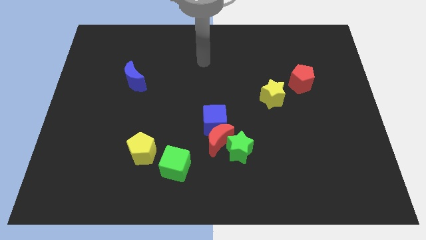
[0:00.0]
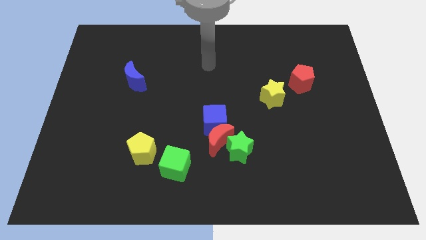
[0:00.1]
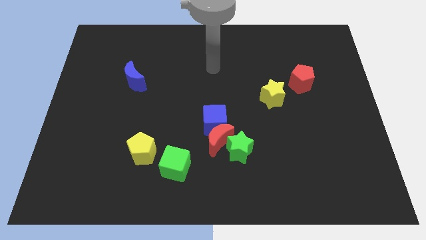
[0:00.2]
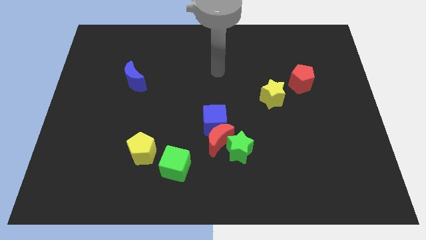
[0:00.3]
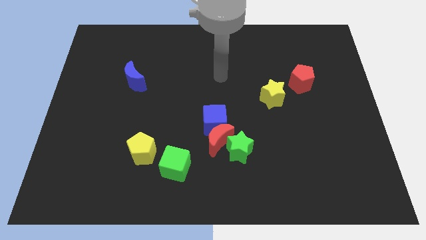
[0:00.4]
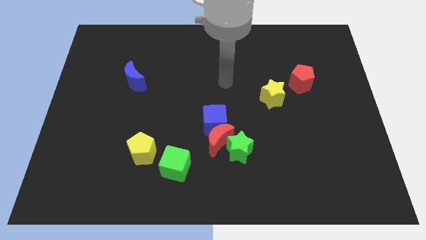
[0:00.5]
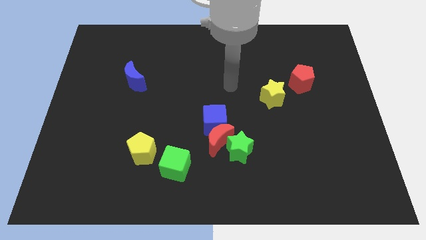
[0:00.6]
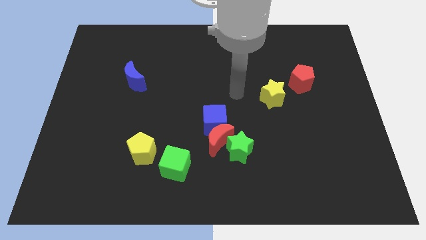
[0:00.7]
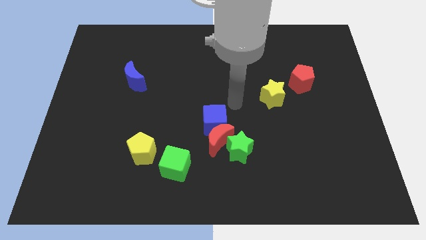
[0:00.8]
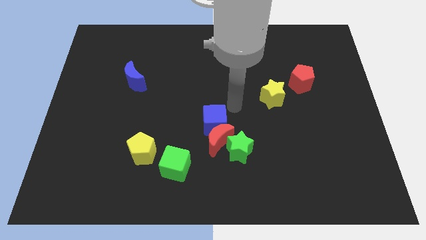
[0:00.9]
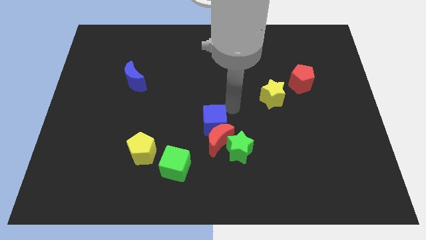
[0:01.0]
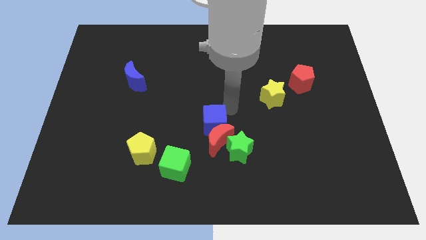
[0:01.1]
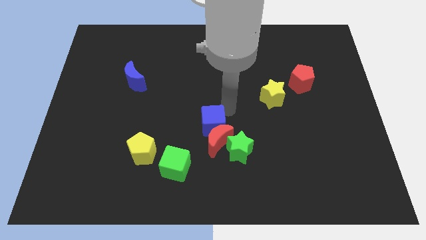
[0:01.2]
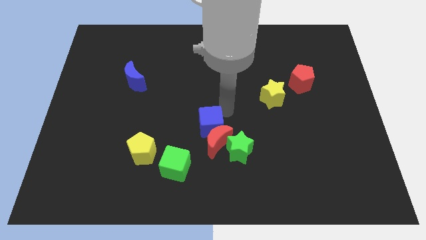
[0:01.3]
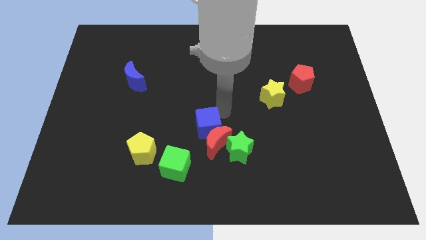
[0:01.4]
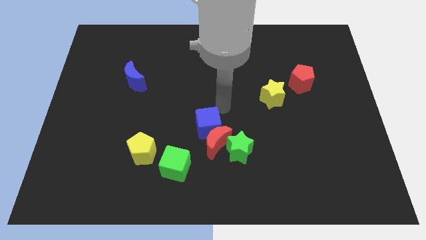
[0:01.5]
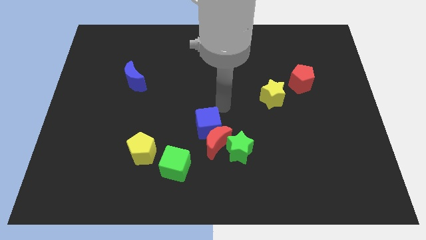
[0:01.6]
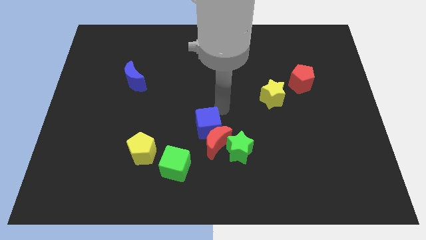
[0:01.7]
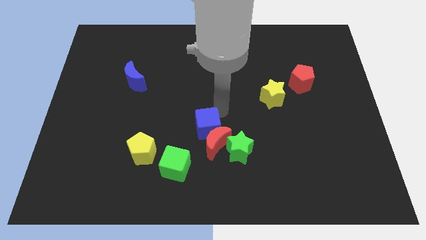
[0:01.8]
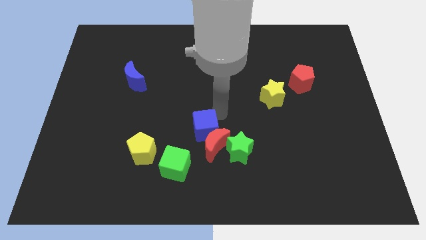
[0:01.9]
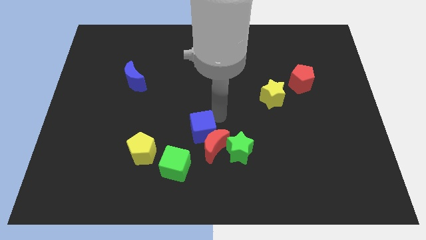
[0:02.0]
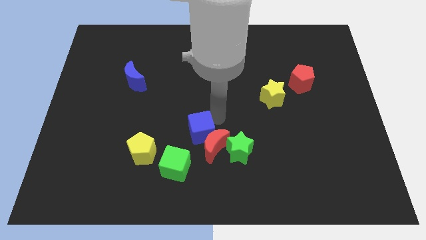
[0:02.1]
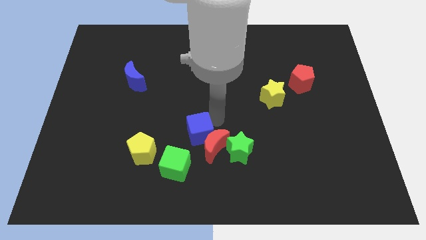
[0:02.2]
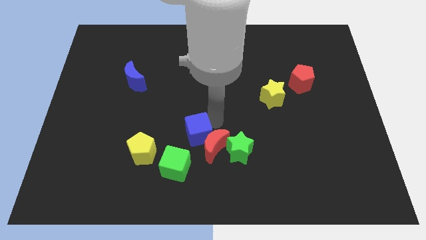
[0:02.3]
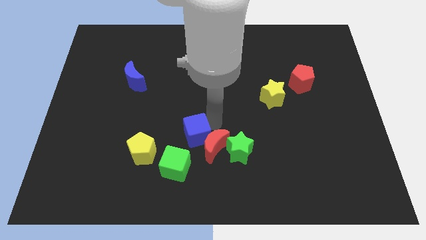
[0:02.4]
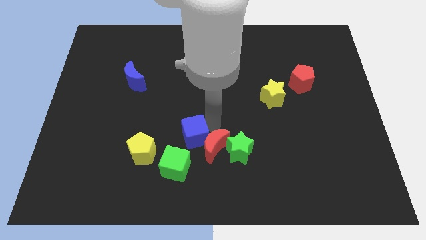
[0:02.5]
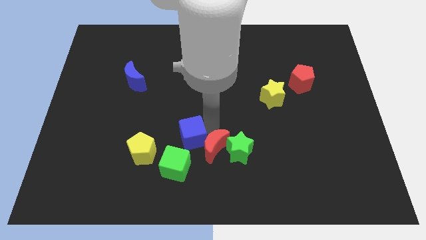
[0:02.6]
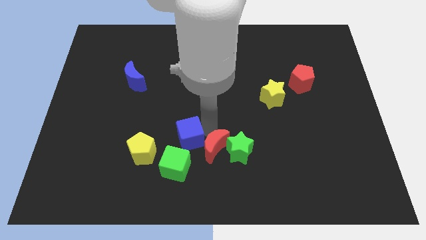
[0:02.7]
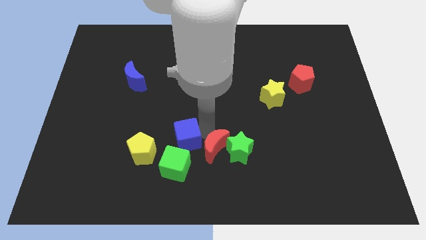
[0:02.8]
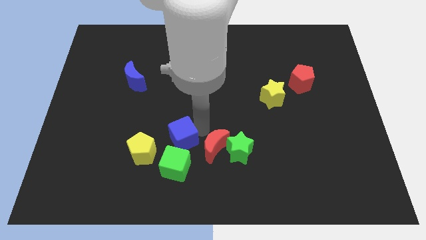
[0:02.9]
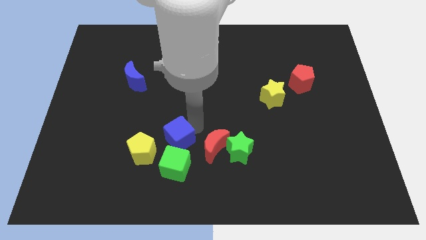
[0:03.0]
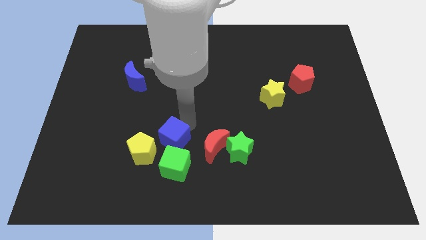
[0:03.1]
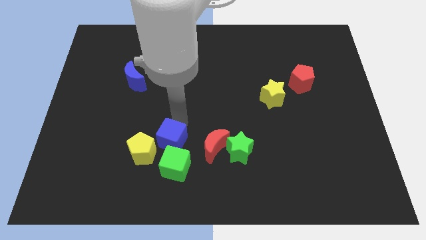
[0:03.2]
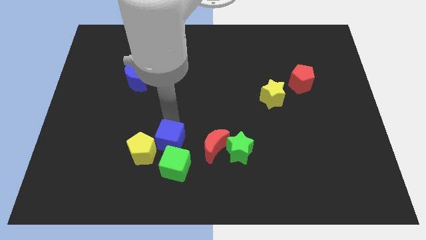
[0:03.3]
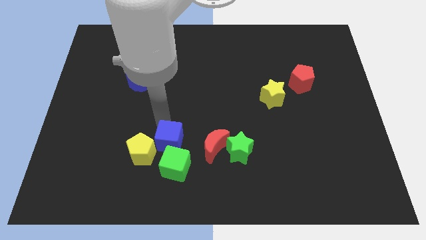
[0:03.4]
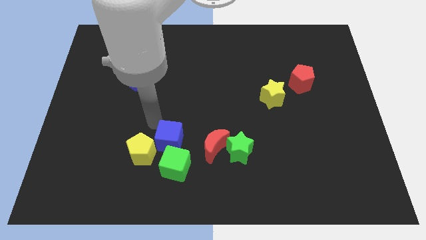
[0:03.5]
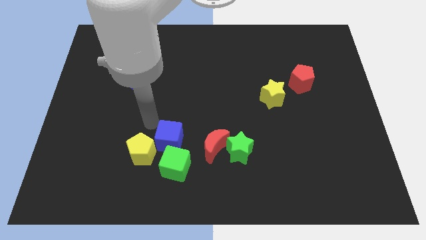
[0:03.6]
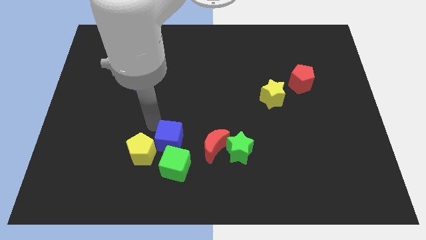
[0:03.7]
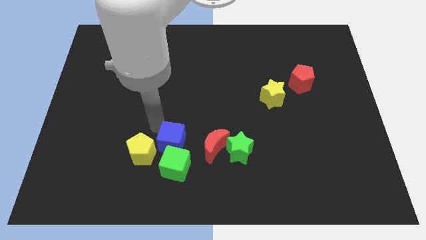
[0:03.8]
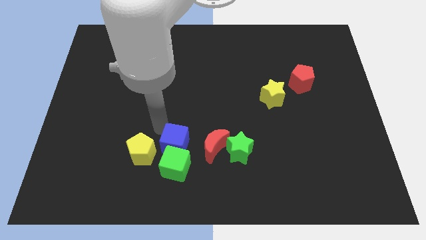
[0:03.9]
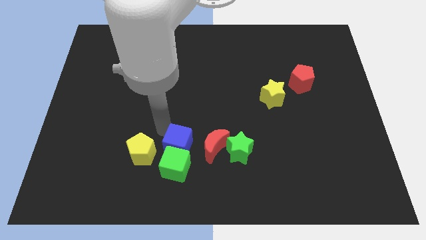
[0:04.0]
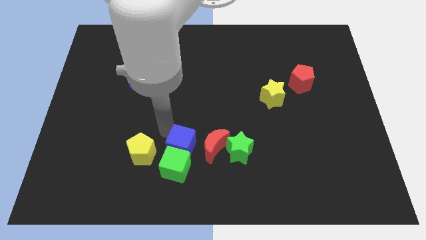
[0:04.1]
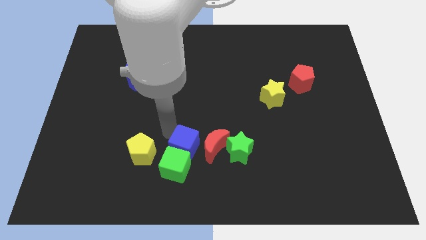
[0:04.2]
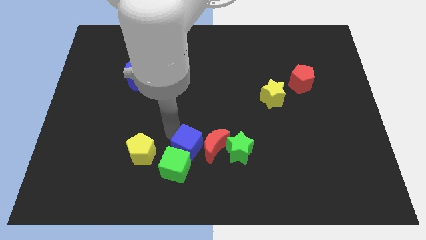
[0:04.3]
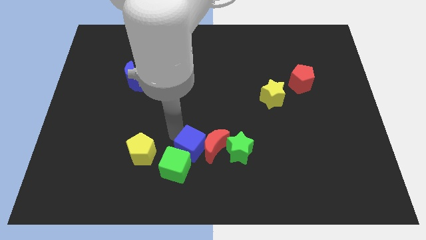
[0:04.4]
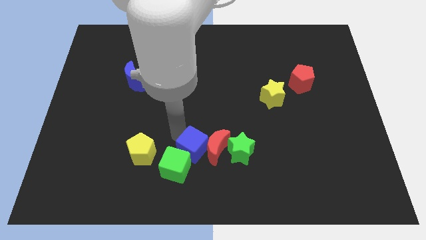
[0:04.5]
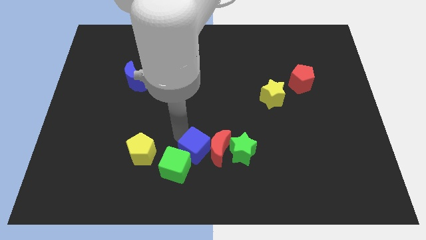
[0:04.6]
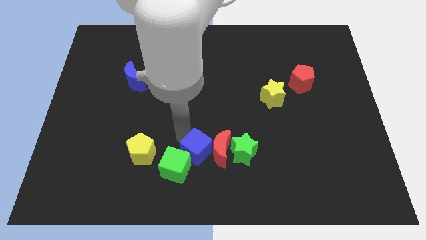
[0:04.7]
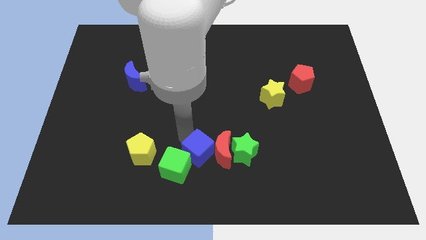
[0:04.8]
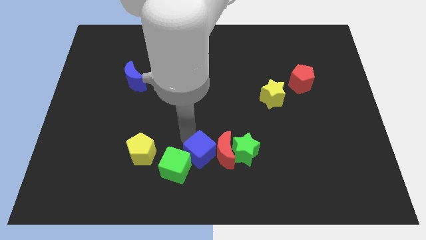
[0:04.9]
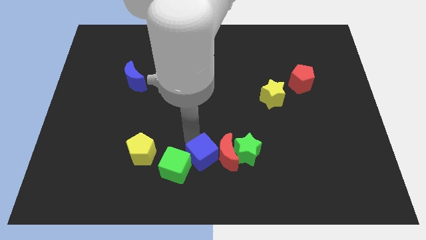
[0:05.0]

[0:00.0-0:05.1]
move the blue cube to the bottom

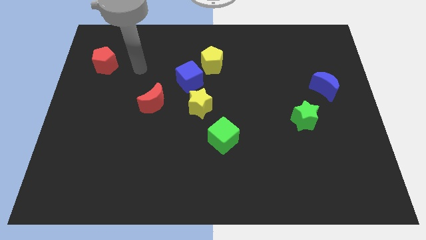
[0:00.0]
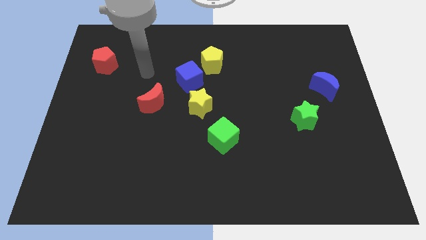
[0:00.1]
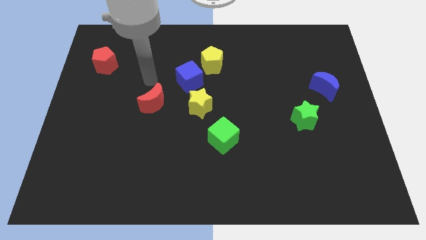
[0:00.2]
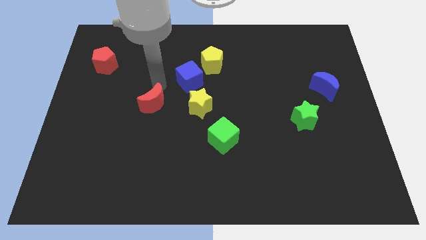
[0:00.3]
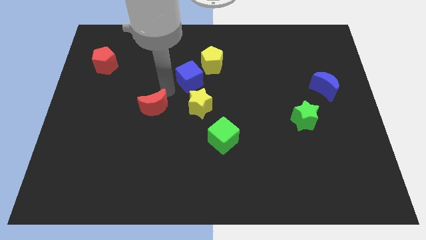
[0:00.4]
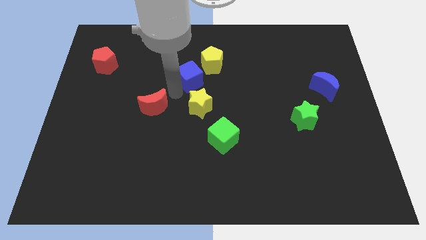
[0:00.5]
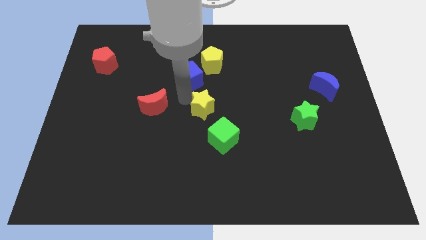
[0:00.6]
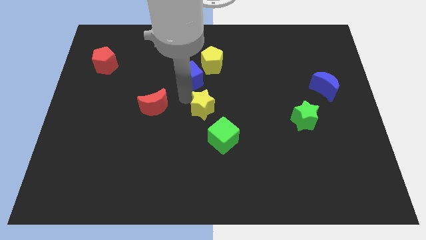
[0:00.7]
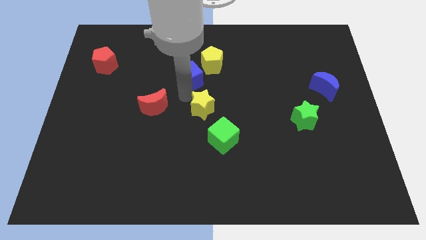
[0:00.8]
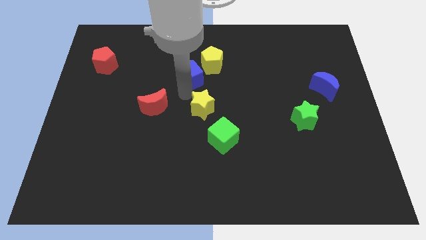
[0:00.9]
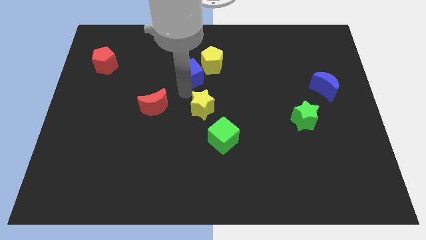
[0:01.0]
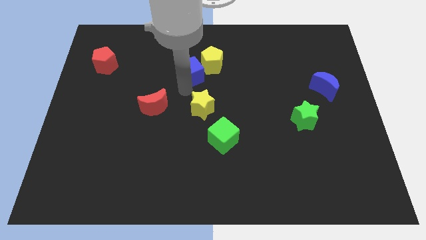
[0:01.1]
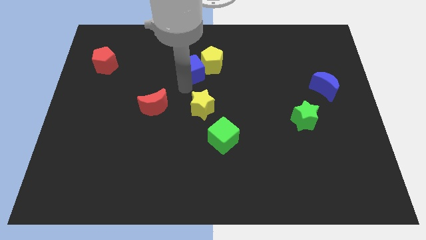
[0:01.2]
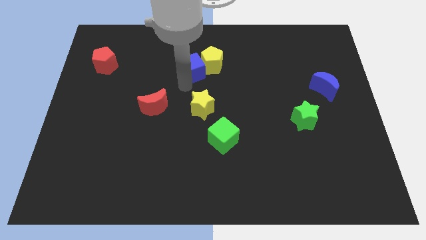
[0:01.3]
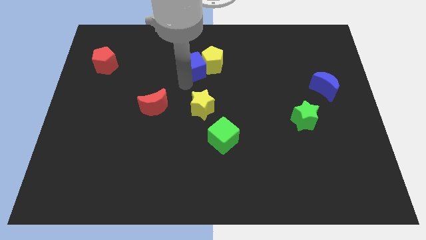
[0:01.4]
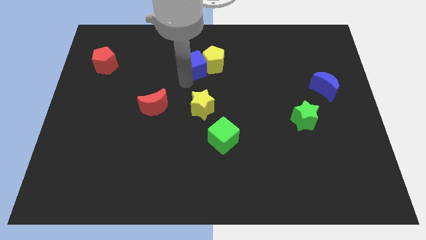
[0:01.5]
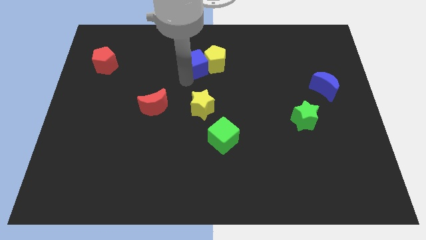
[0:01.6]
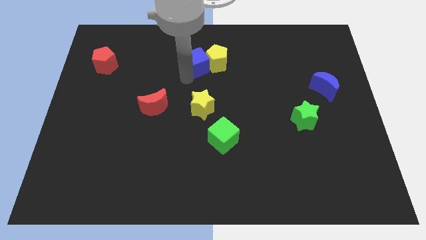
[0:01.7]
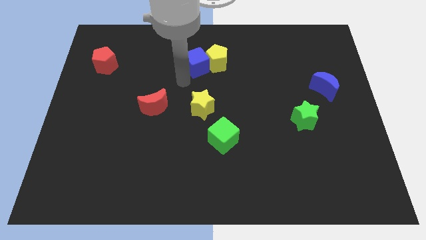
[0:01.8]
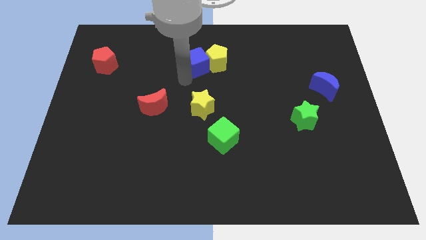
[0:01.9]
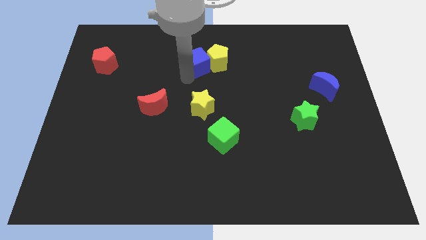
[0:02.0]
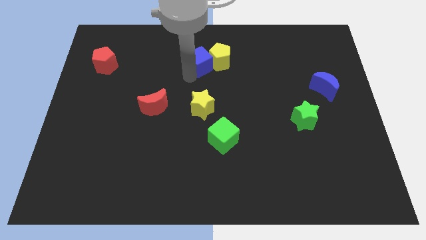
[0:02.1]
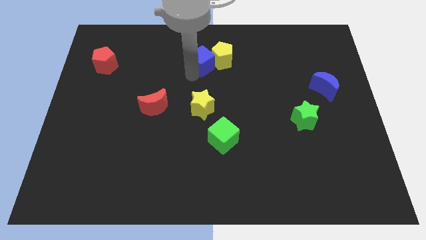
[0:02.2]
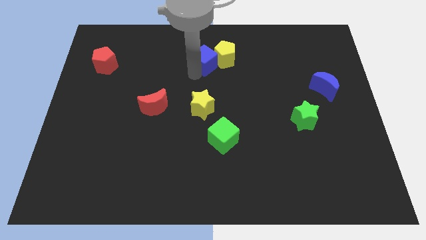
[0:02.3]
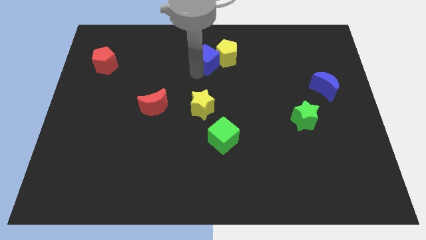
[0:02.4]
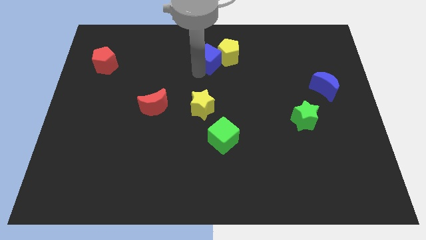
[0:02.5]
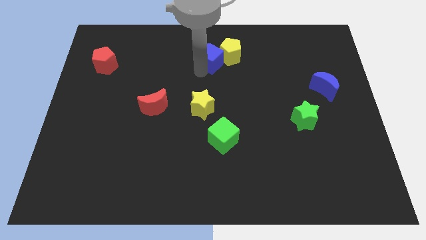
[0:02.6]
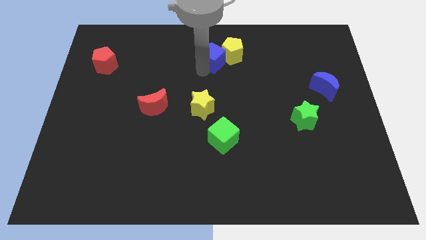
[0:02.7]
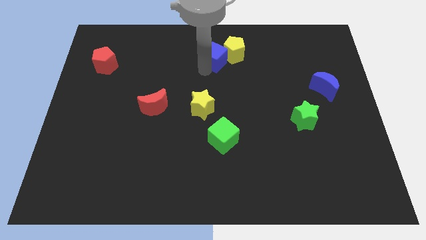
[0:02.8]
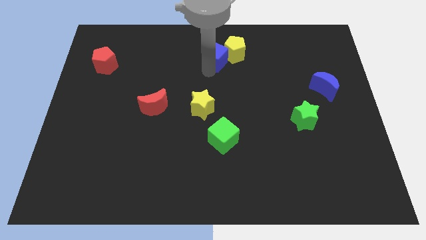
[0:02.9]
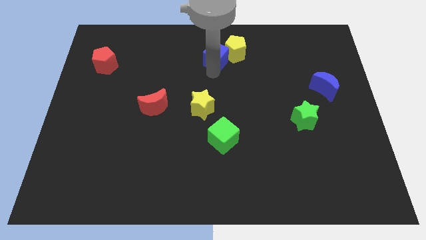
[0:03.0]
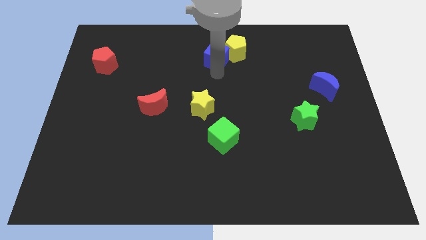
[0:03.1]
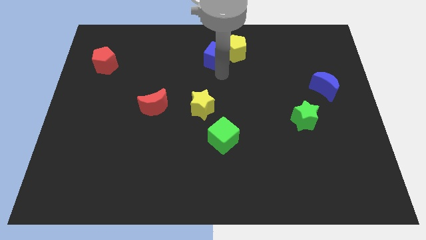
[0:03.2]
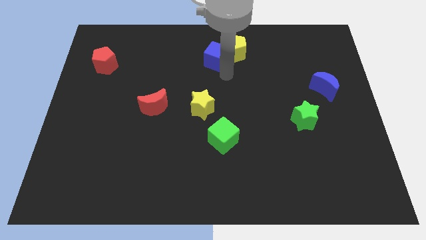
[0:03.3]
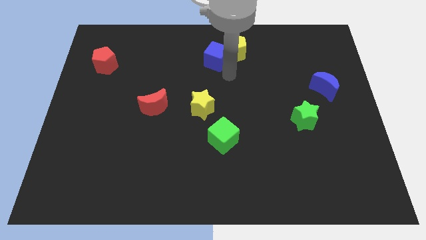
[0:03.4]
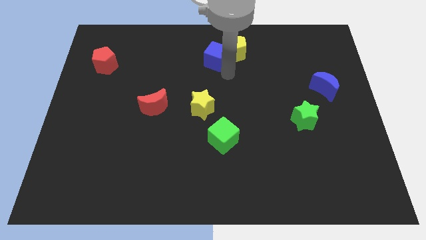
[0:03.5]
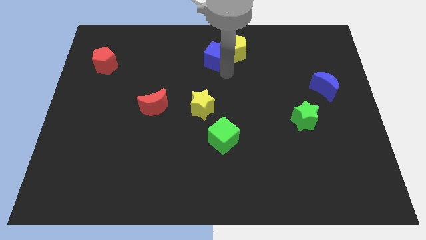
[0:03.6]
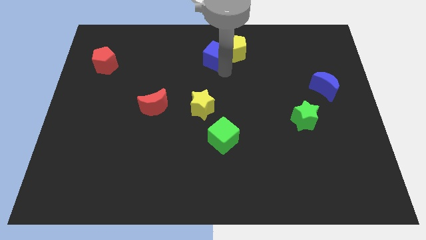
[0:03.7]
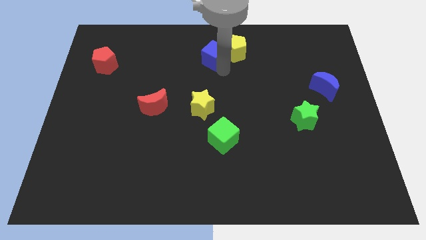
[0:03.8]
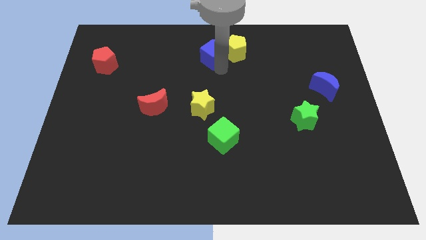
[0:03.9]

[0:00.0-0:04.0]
push the blue cube to the towards your base
